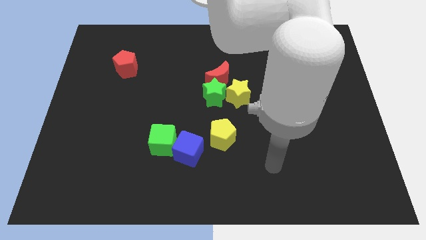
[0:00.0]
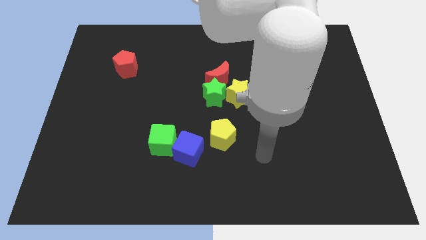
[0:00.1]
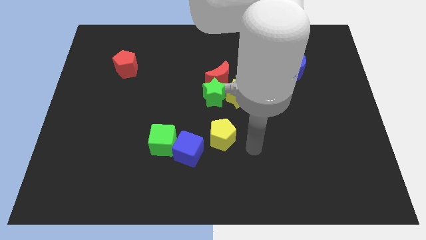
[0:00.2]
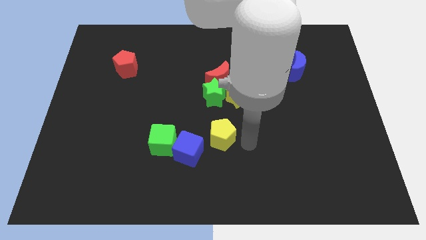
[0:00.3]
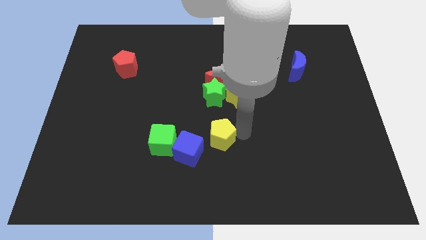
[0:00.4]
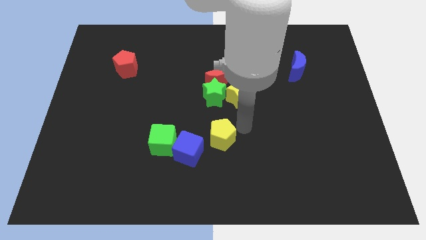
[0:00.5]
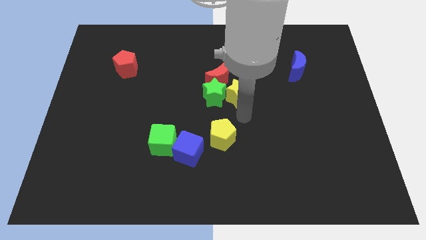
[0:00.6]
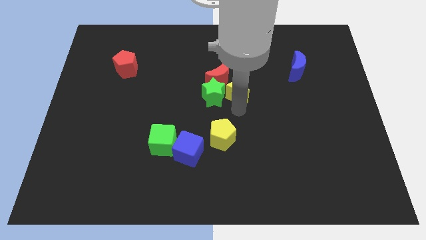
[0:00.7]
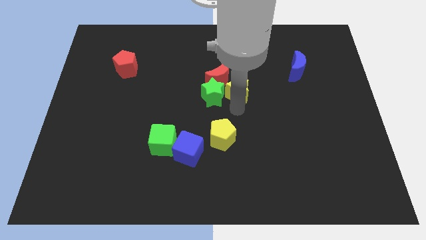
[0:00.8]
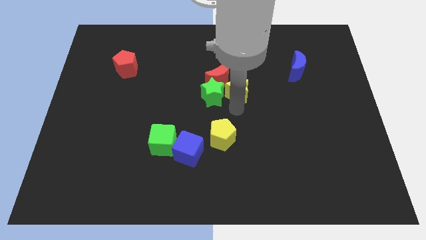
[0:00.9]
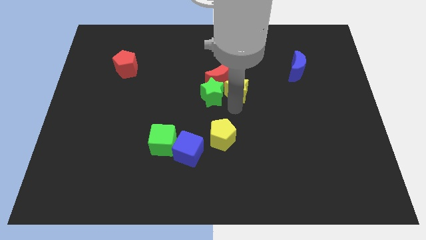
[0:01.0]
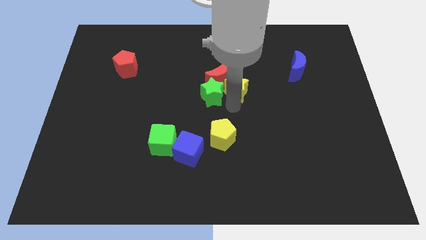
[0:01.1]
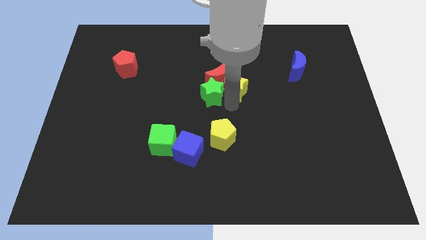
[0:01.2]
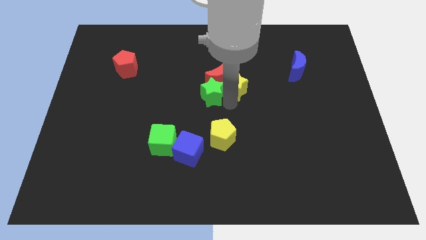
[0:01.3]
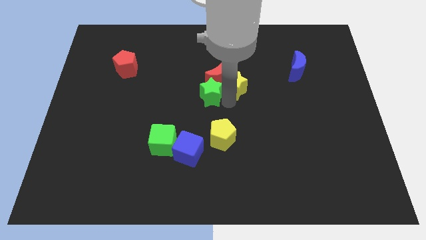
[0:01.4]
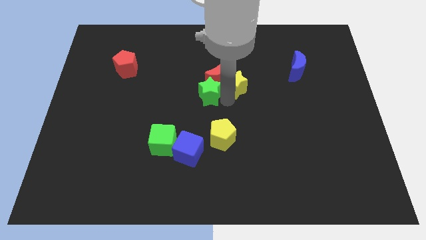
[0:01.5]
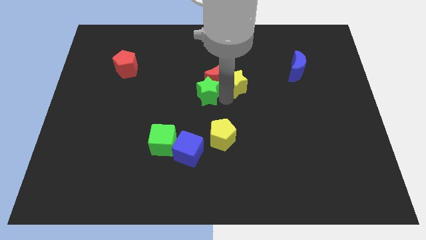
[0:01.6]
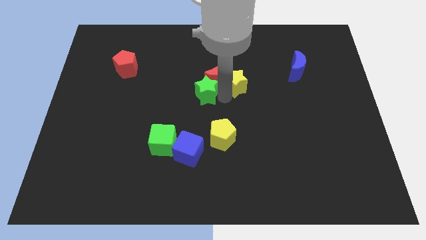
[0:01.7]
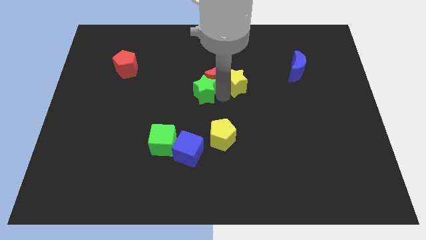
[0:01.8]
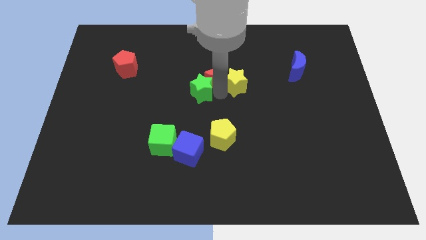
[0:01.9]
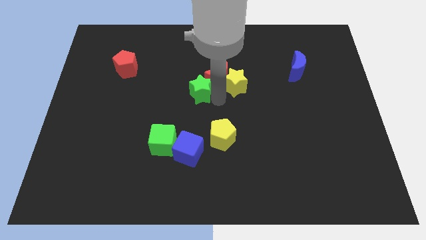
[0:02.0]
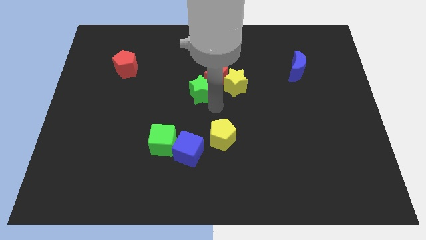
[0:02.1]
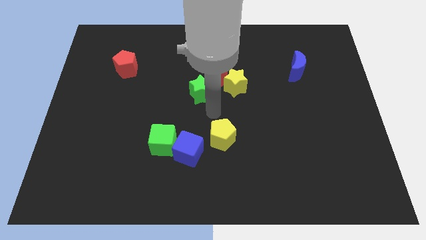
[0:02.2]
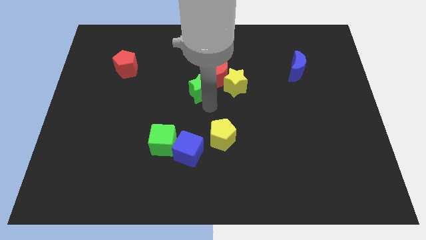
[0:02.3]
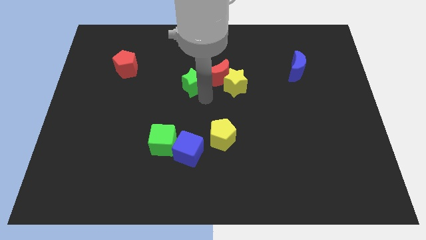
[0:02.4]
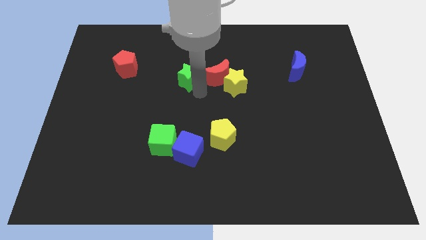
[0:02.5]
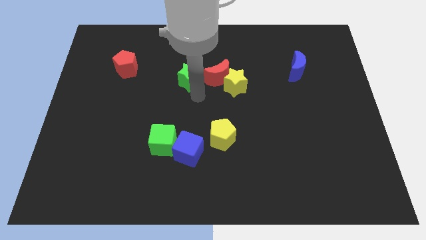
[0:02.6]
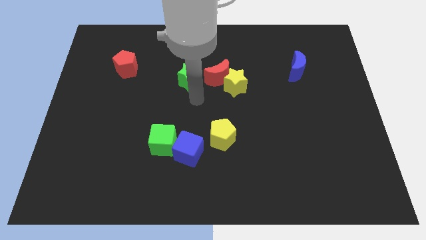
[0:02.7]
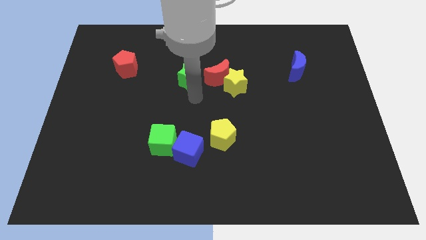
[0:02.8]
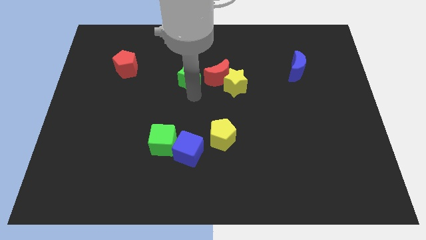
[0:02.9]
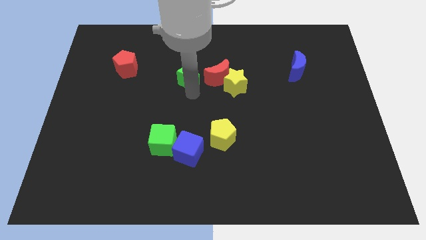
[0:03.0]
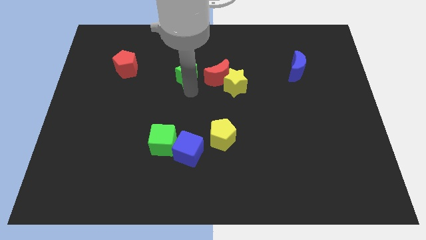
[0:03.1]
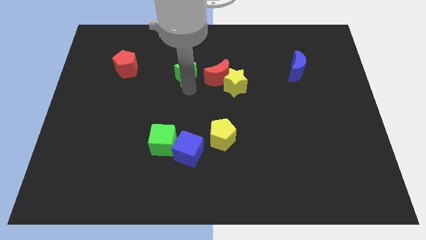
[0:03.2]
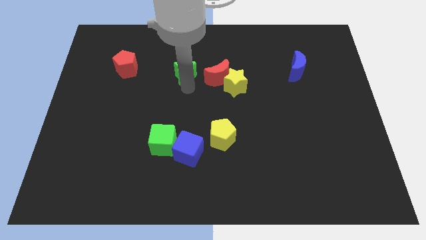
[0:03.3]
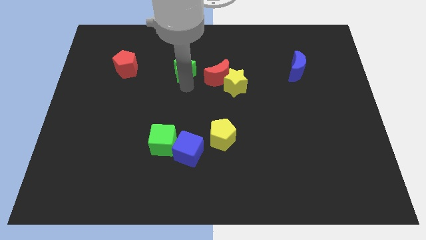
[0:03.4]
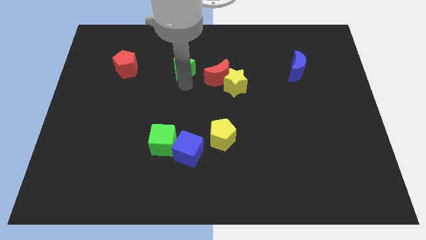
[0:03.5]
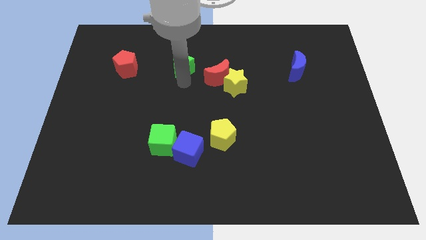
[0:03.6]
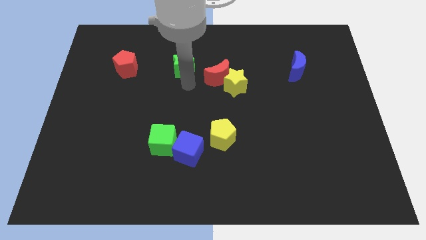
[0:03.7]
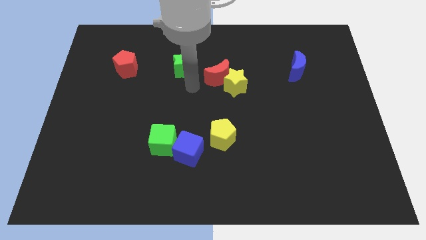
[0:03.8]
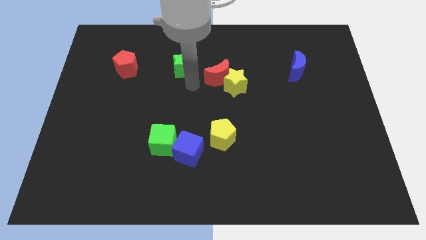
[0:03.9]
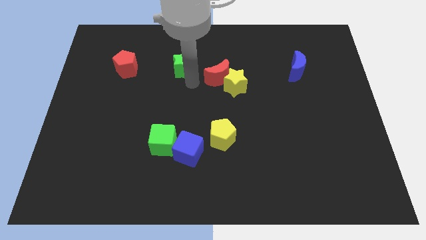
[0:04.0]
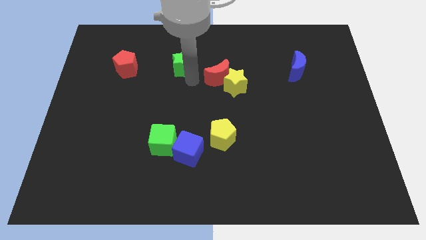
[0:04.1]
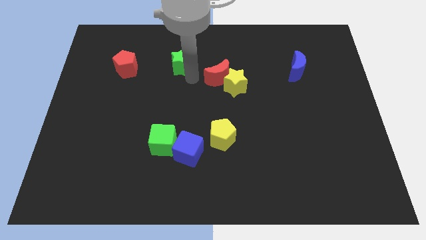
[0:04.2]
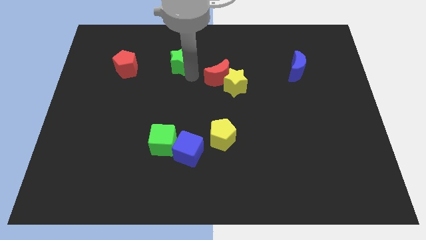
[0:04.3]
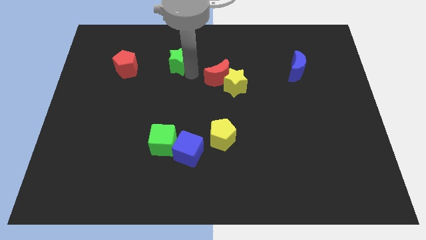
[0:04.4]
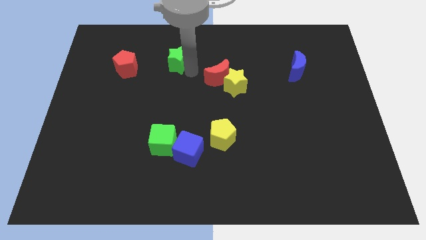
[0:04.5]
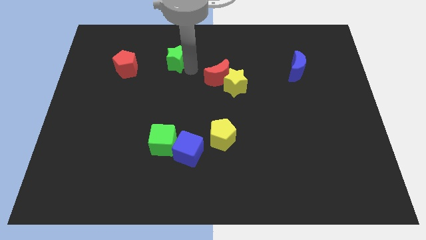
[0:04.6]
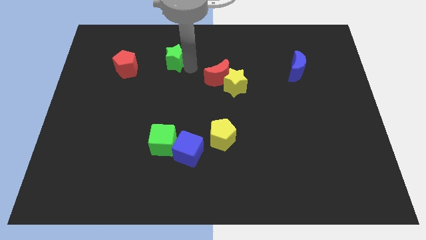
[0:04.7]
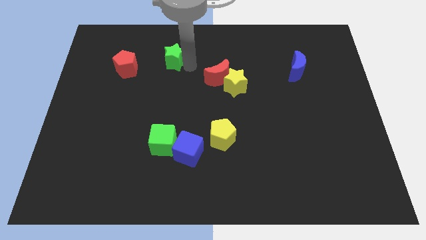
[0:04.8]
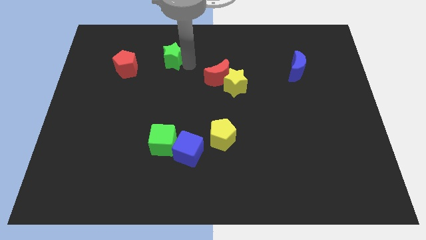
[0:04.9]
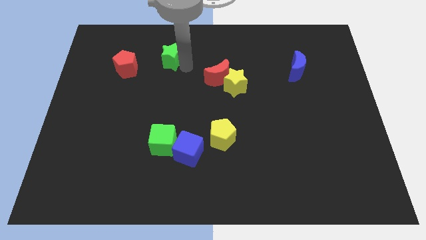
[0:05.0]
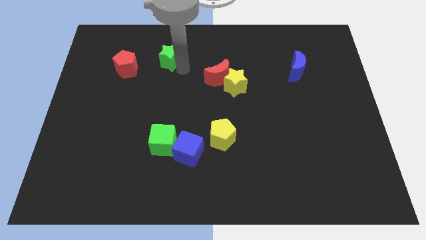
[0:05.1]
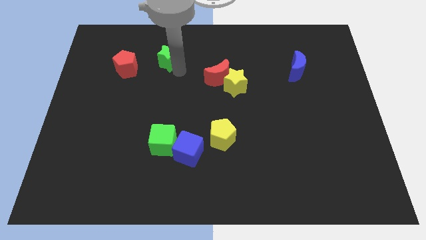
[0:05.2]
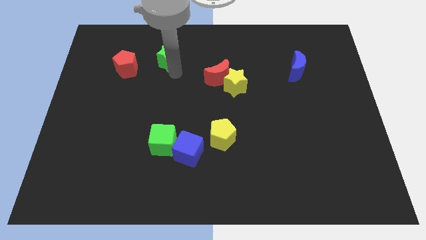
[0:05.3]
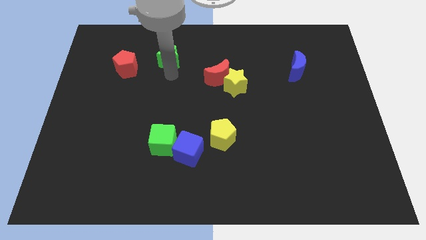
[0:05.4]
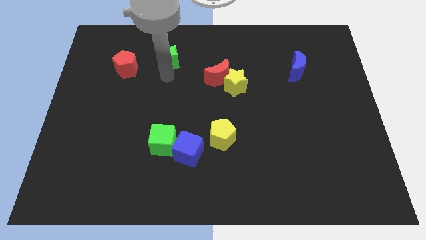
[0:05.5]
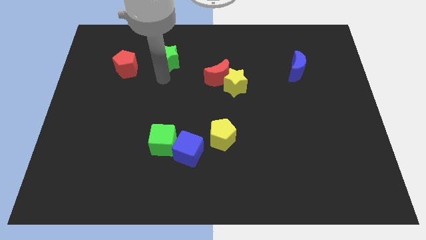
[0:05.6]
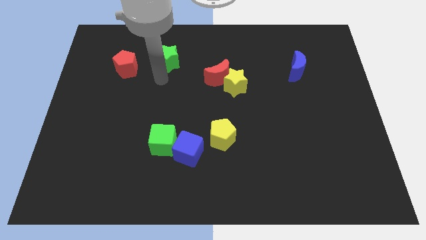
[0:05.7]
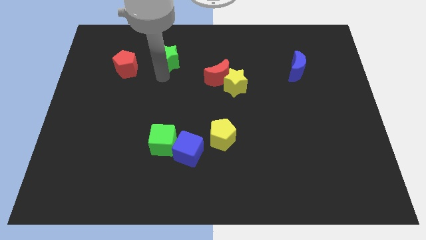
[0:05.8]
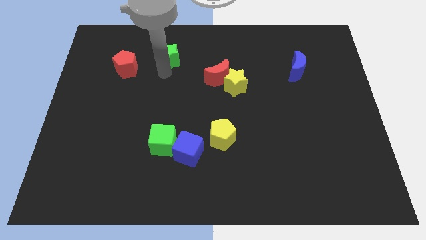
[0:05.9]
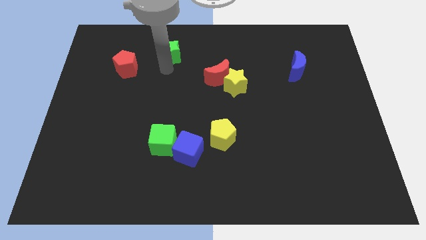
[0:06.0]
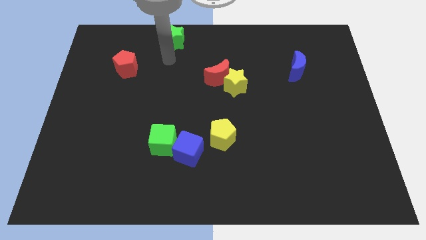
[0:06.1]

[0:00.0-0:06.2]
push the green star to the top side
